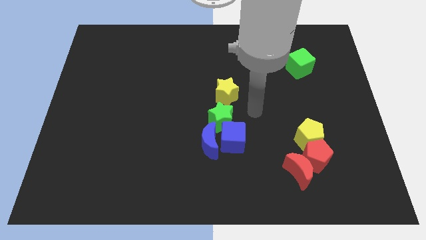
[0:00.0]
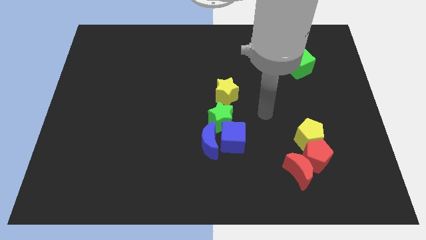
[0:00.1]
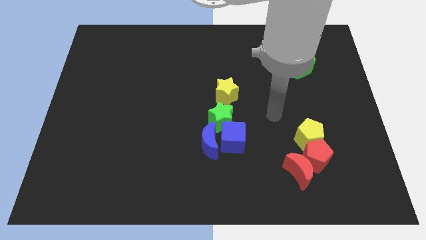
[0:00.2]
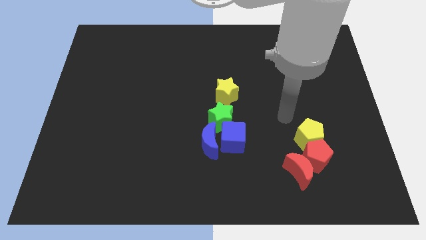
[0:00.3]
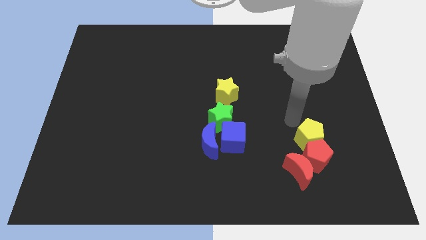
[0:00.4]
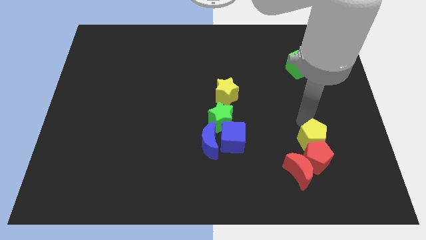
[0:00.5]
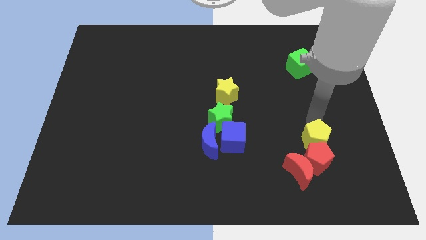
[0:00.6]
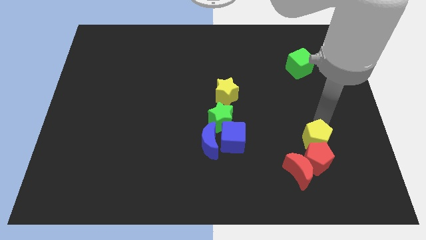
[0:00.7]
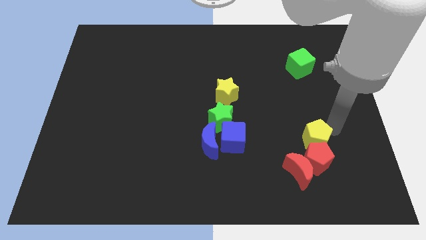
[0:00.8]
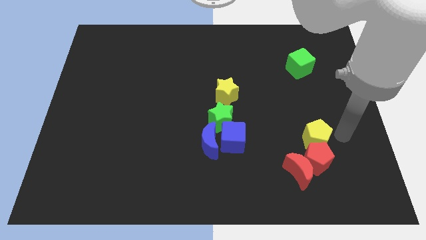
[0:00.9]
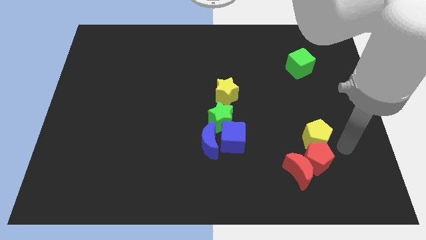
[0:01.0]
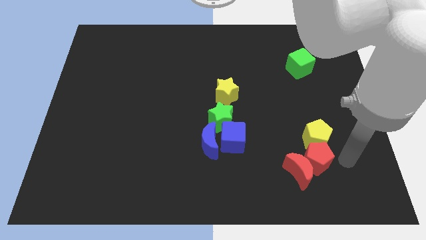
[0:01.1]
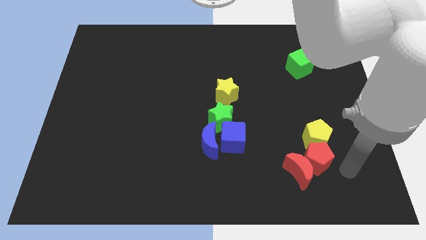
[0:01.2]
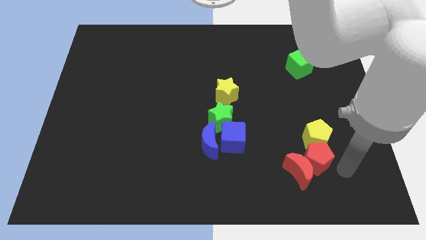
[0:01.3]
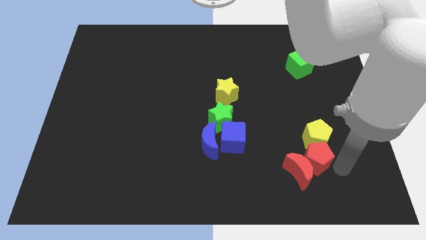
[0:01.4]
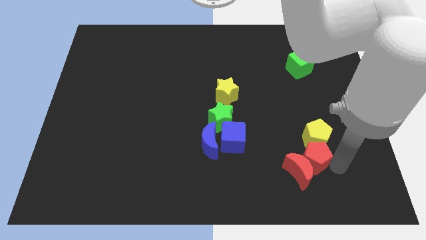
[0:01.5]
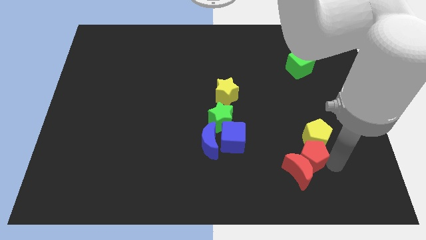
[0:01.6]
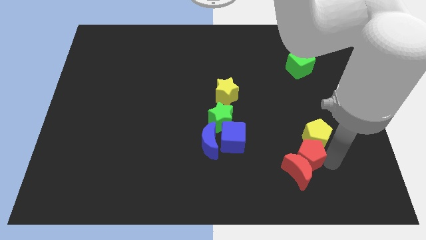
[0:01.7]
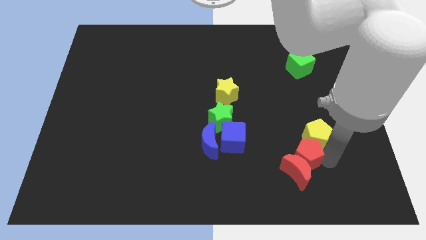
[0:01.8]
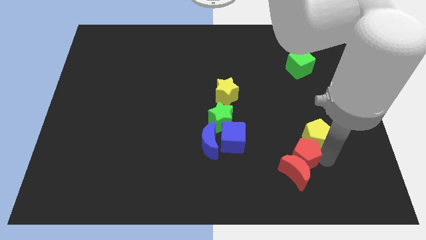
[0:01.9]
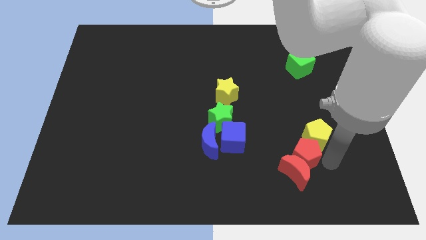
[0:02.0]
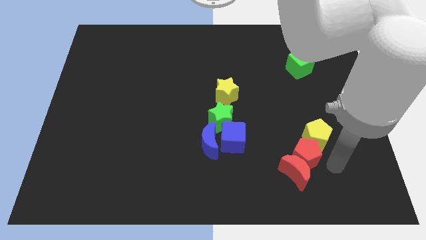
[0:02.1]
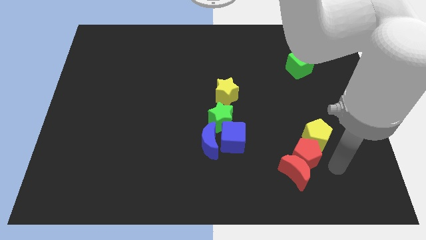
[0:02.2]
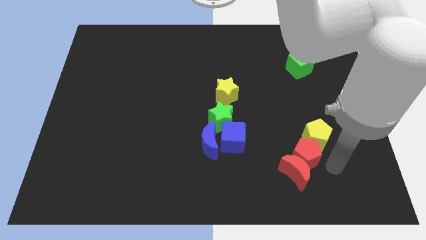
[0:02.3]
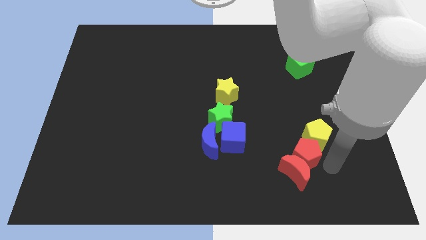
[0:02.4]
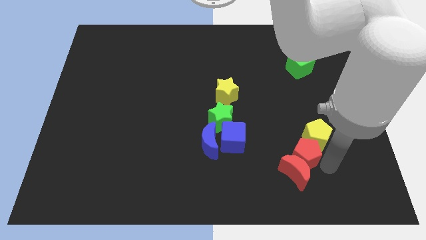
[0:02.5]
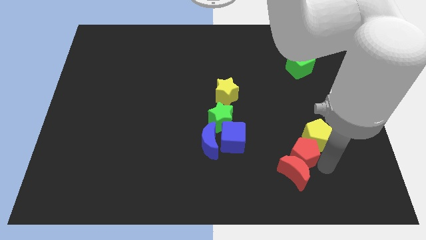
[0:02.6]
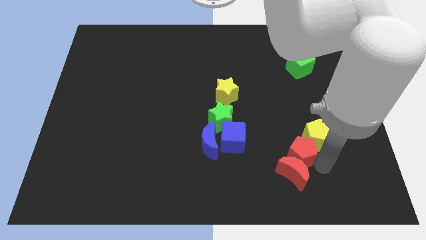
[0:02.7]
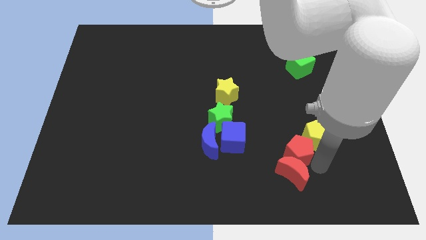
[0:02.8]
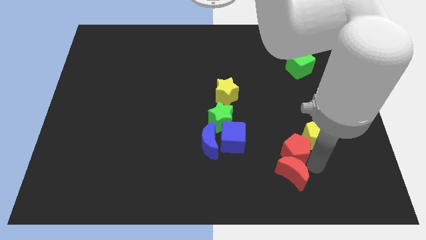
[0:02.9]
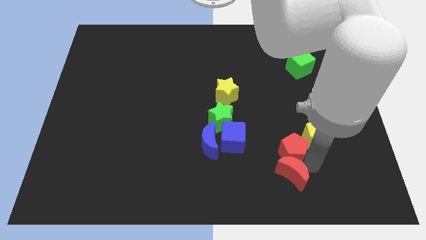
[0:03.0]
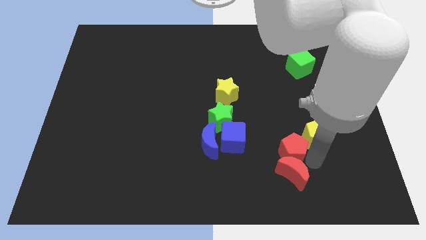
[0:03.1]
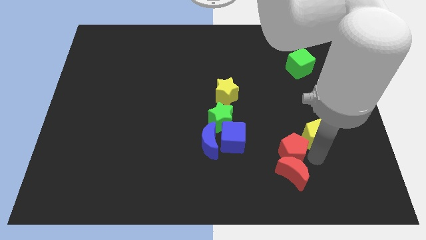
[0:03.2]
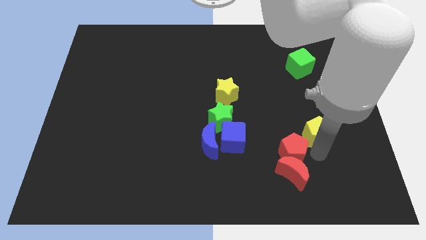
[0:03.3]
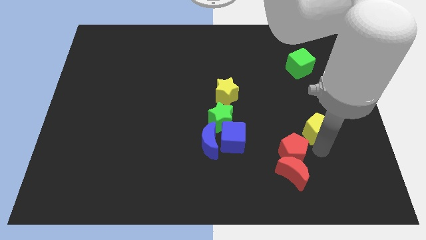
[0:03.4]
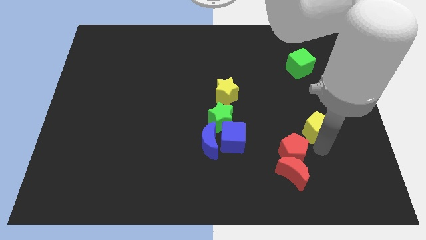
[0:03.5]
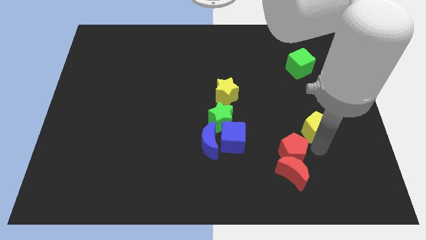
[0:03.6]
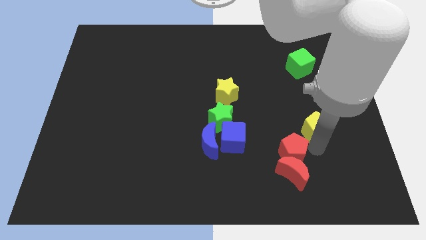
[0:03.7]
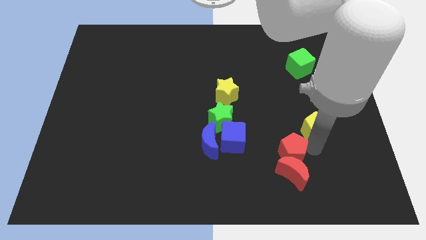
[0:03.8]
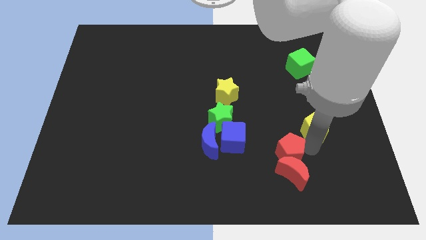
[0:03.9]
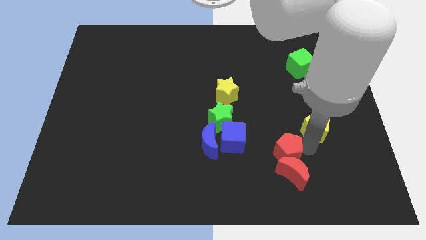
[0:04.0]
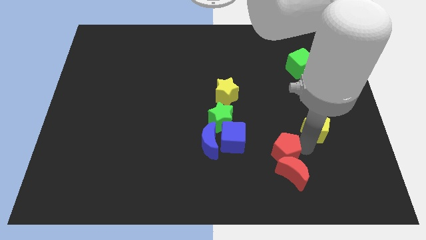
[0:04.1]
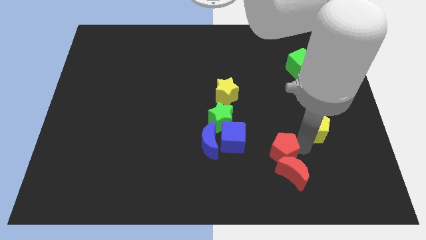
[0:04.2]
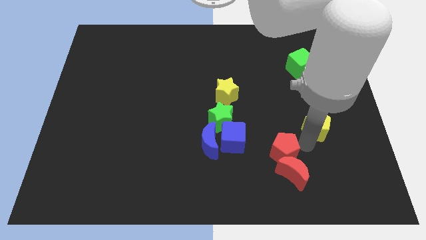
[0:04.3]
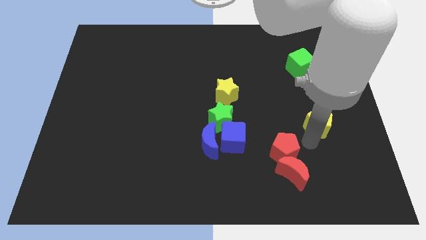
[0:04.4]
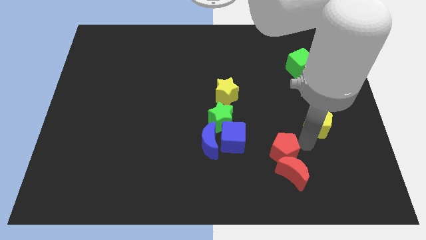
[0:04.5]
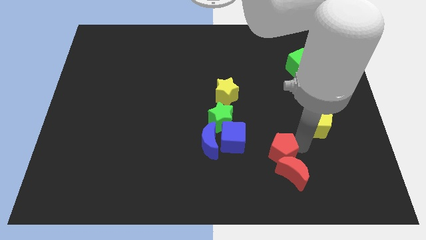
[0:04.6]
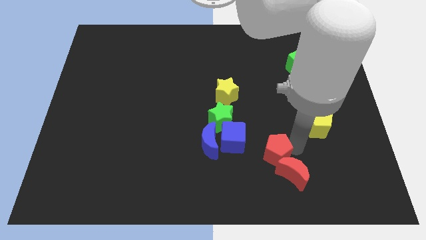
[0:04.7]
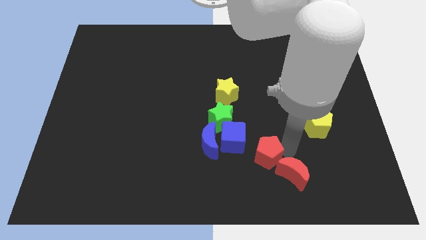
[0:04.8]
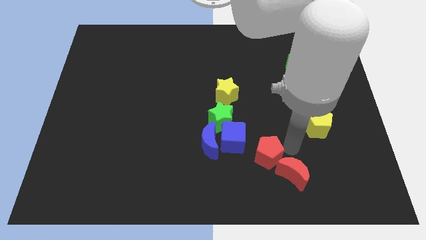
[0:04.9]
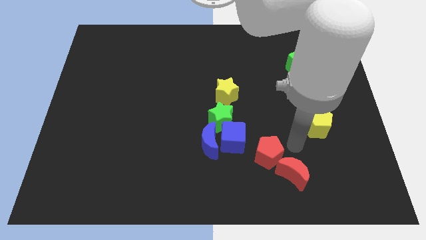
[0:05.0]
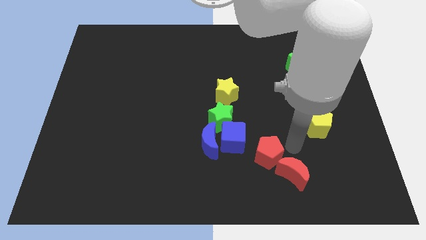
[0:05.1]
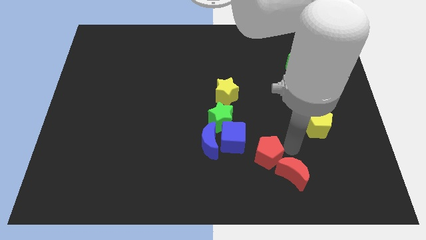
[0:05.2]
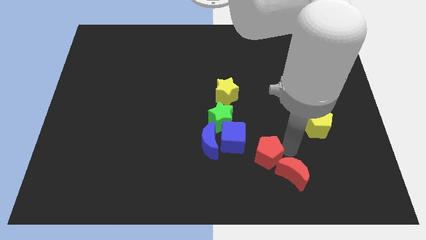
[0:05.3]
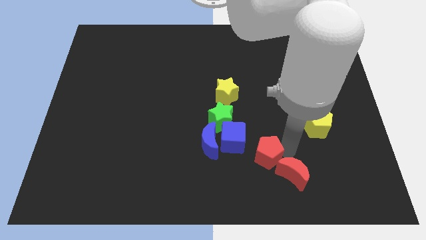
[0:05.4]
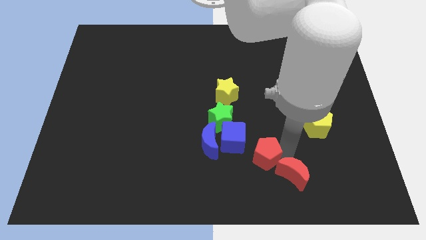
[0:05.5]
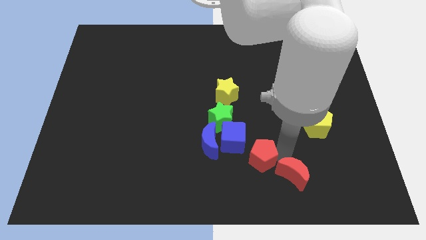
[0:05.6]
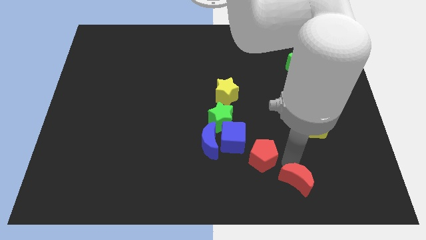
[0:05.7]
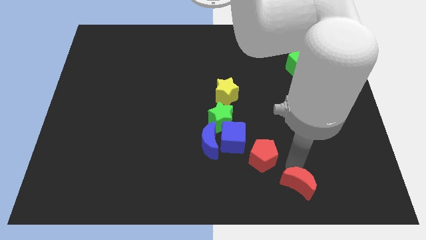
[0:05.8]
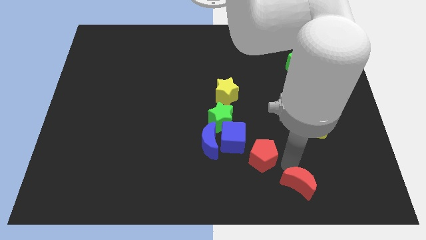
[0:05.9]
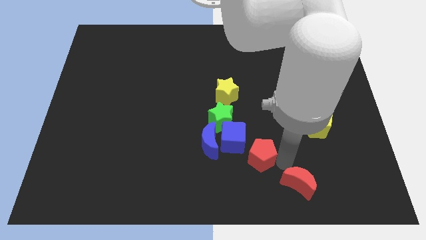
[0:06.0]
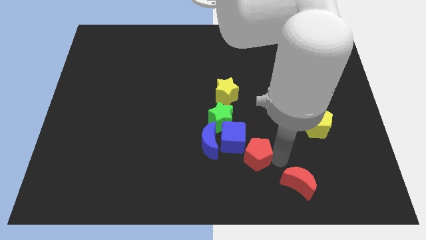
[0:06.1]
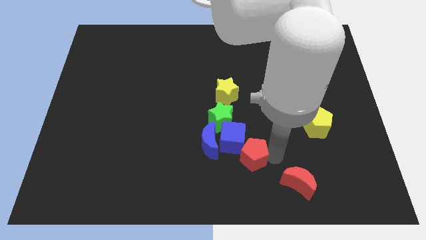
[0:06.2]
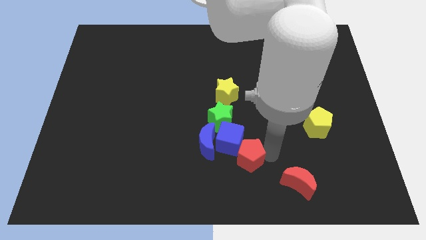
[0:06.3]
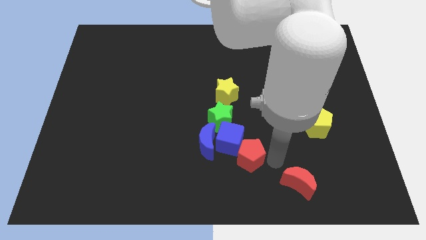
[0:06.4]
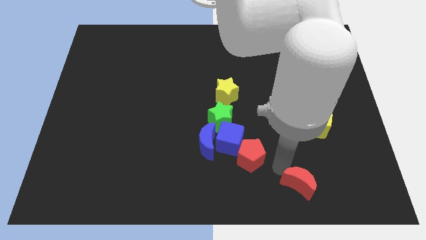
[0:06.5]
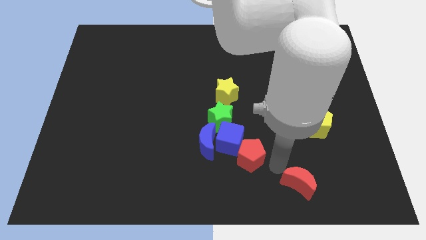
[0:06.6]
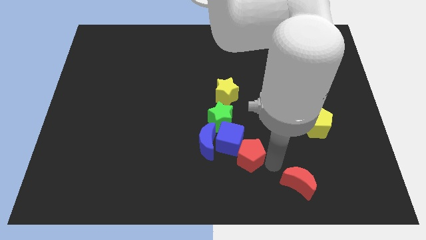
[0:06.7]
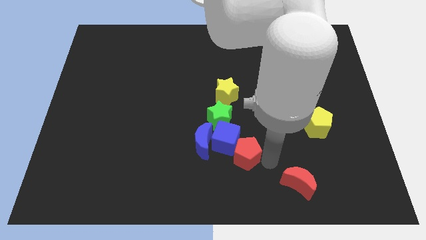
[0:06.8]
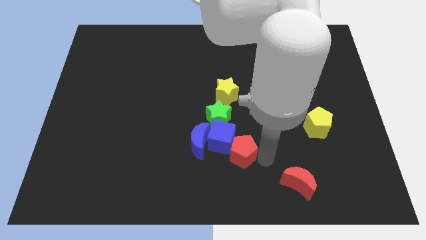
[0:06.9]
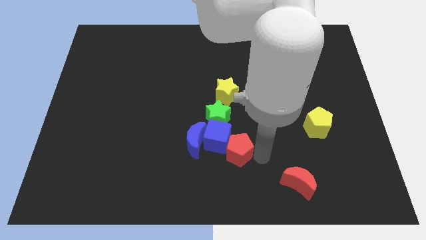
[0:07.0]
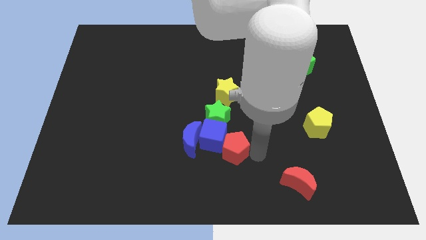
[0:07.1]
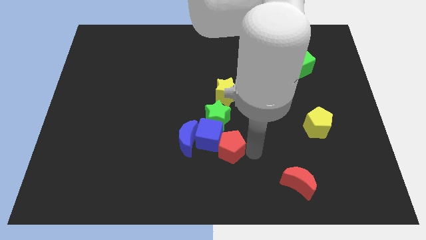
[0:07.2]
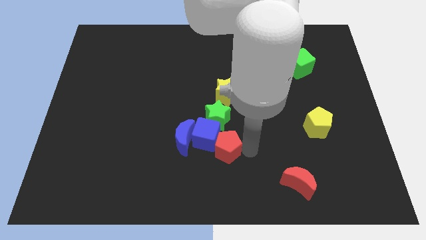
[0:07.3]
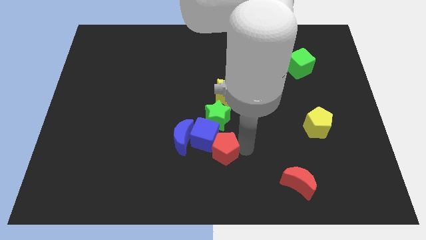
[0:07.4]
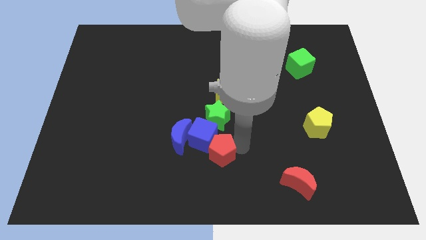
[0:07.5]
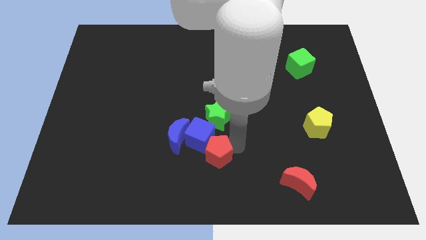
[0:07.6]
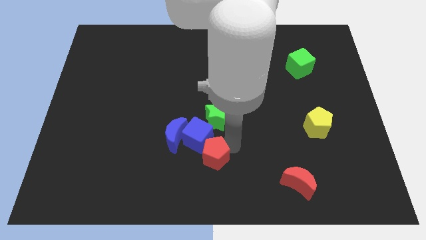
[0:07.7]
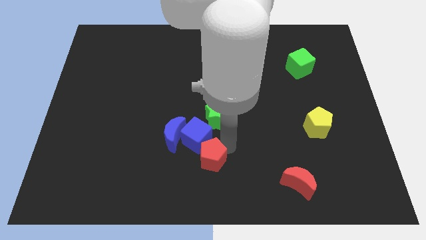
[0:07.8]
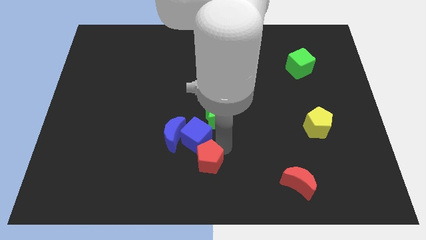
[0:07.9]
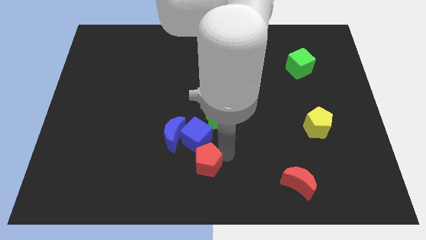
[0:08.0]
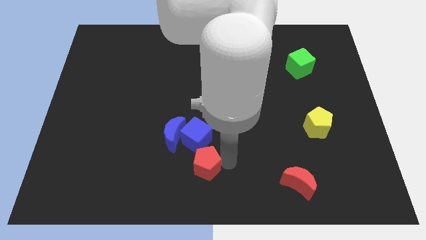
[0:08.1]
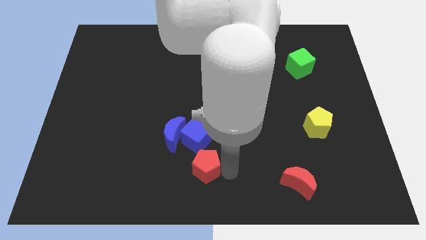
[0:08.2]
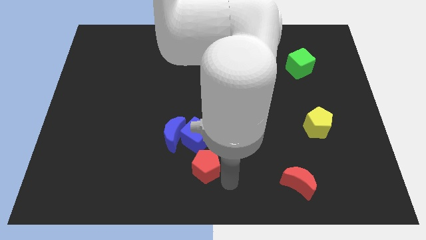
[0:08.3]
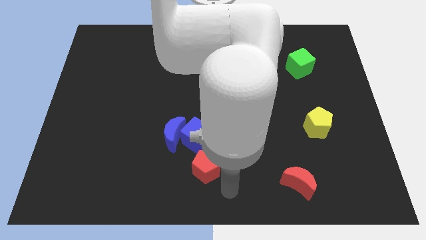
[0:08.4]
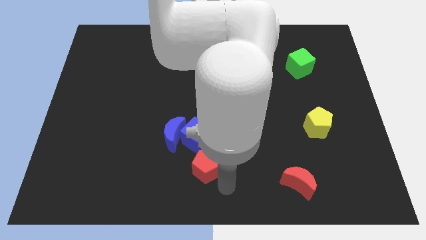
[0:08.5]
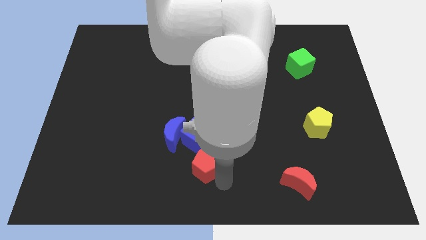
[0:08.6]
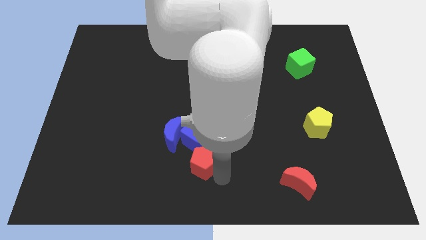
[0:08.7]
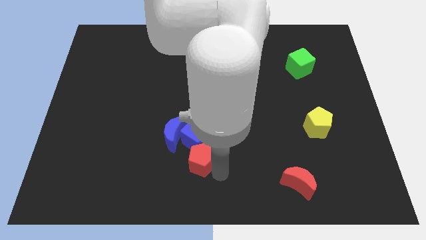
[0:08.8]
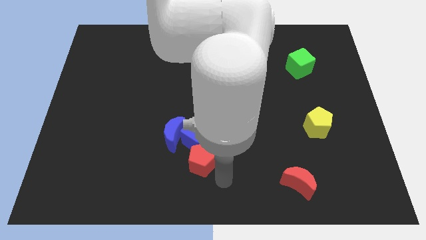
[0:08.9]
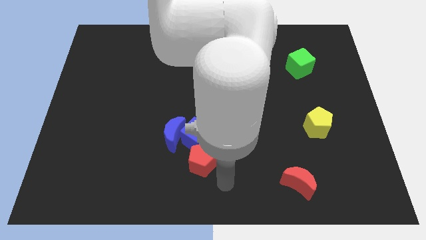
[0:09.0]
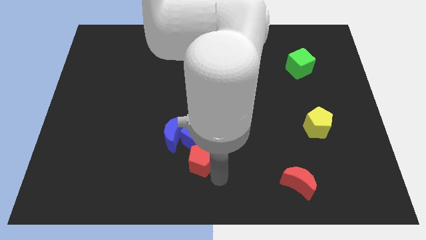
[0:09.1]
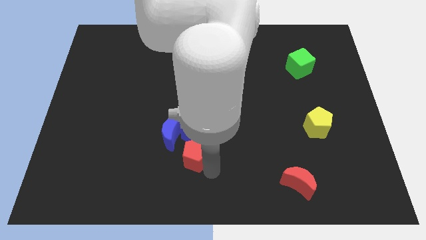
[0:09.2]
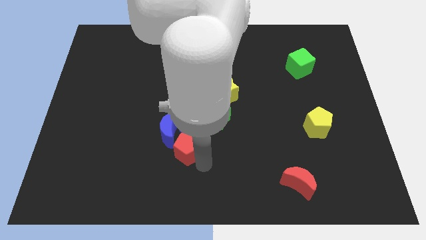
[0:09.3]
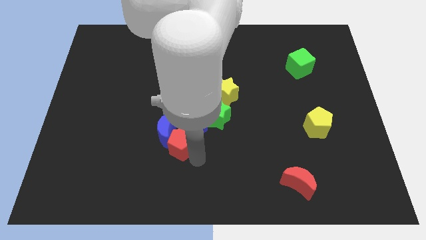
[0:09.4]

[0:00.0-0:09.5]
slide the red pentagon next to the blue moon
